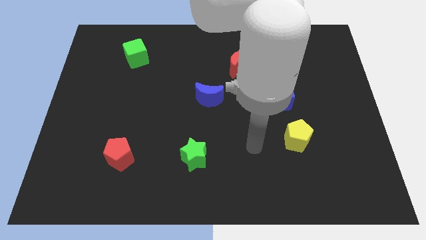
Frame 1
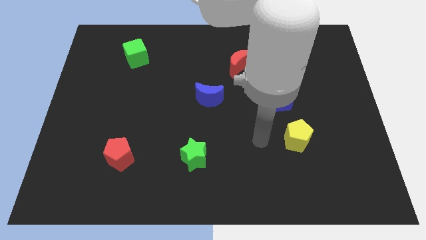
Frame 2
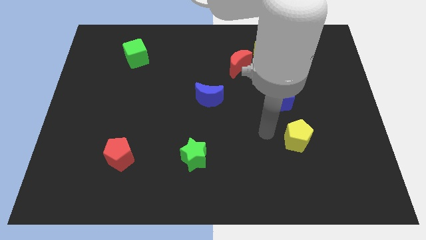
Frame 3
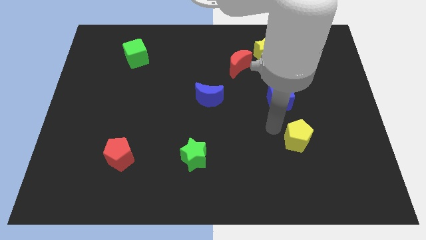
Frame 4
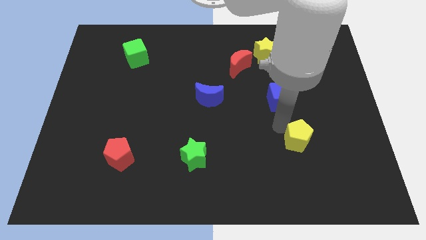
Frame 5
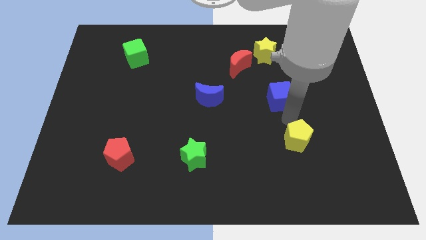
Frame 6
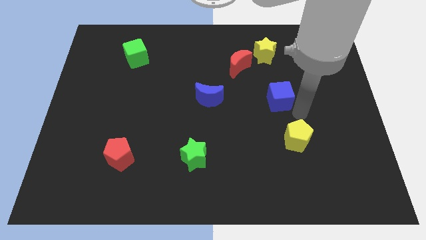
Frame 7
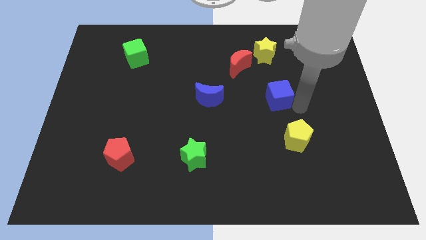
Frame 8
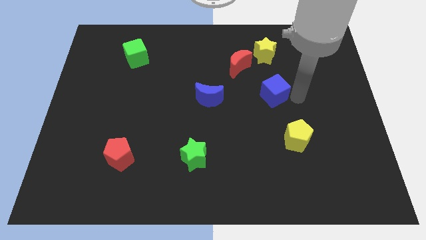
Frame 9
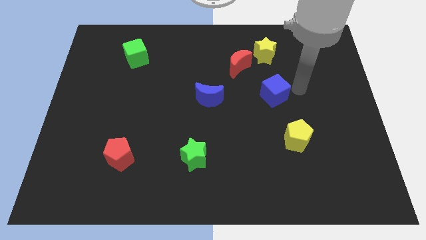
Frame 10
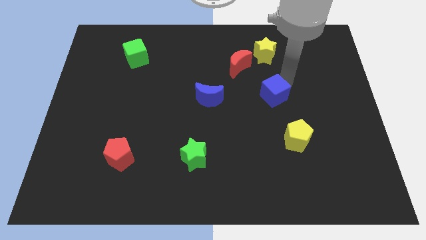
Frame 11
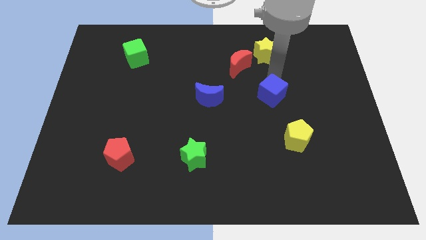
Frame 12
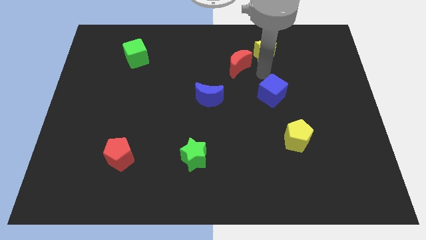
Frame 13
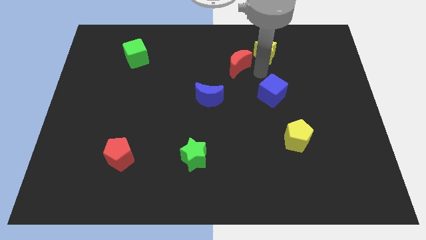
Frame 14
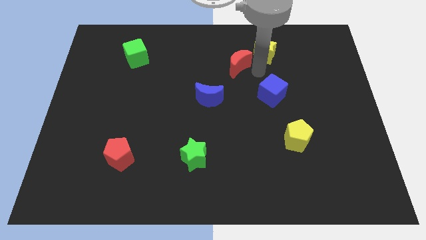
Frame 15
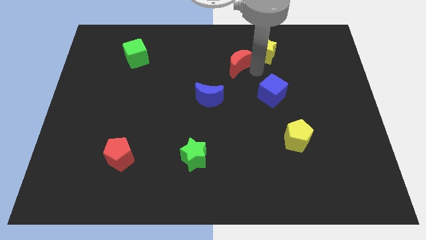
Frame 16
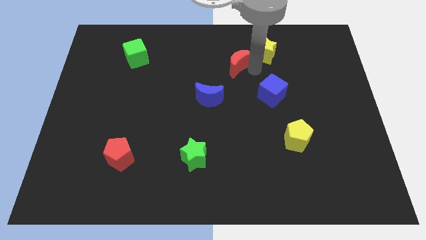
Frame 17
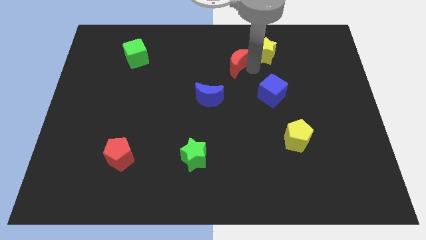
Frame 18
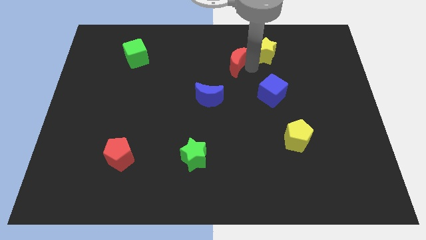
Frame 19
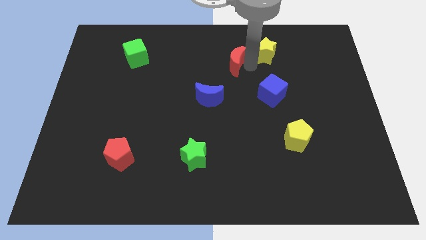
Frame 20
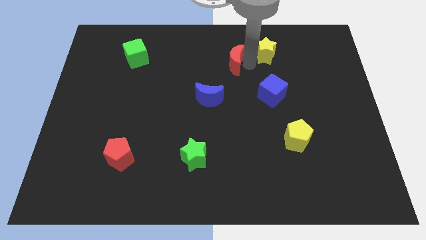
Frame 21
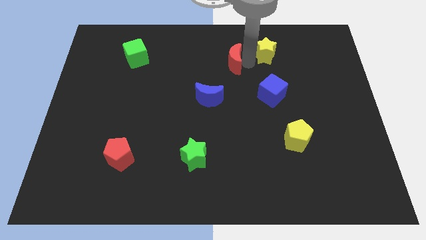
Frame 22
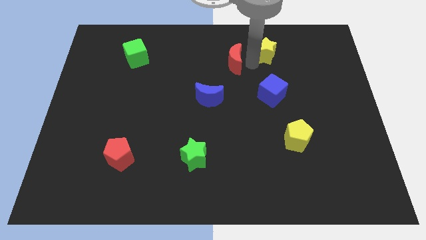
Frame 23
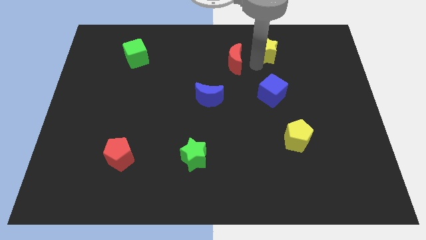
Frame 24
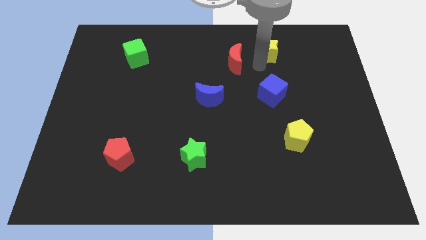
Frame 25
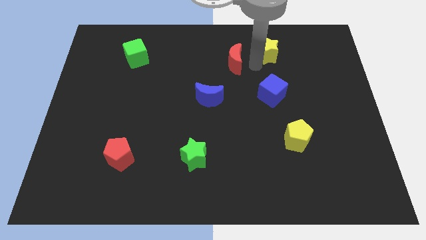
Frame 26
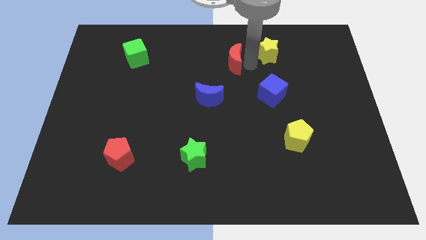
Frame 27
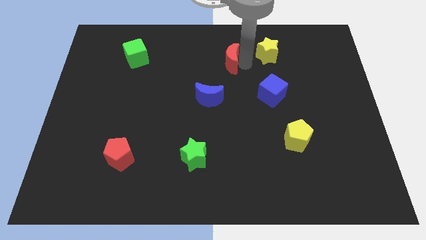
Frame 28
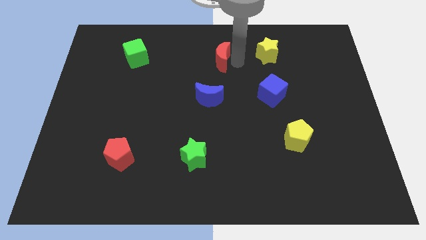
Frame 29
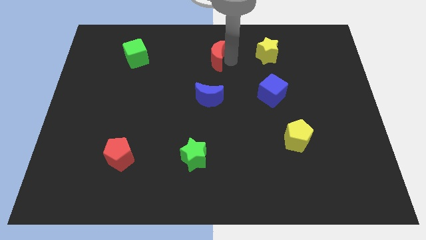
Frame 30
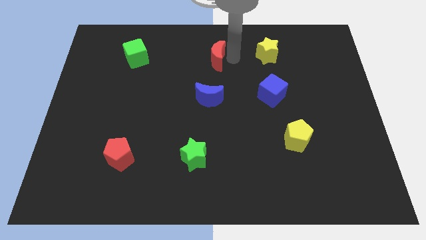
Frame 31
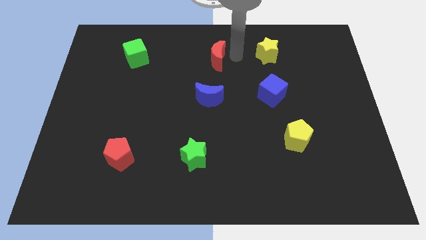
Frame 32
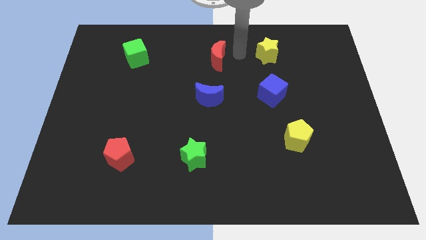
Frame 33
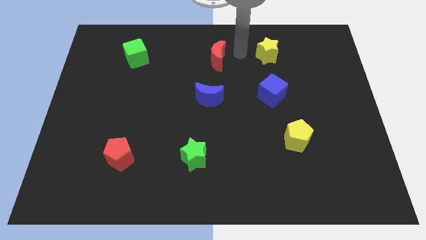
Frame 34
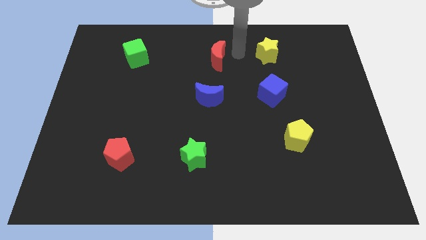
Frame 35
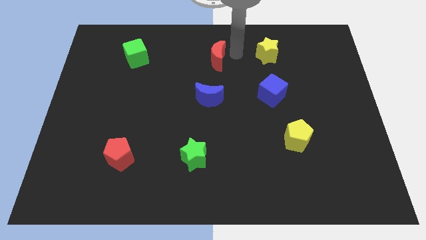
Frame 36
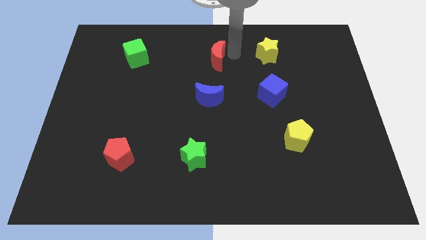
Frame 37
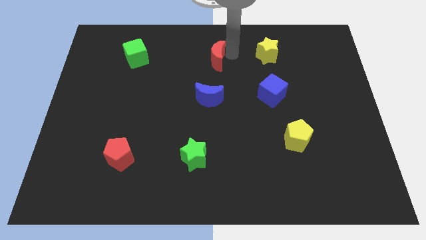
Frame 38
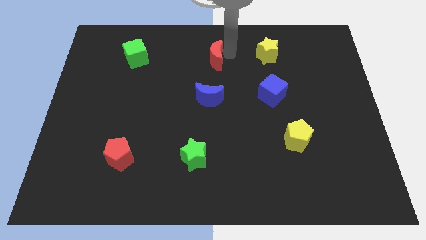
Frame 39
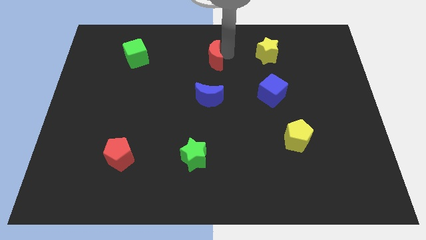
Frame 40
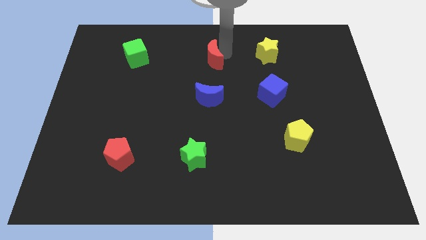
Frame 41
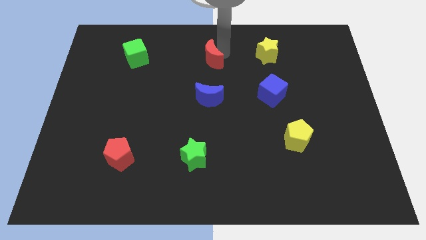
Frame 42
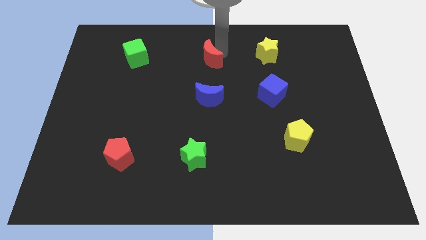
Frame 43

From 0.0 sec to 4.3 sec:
slightly slide the red moon to the left

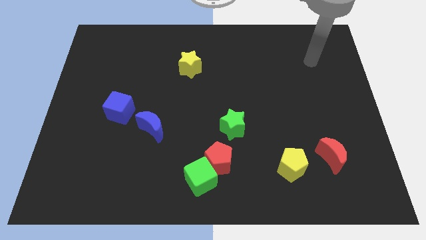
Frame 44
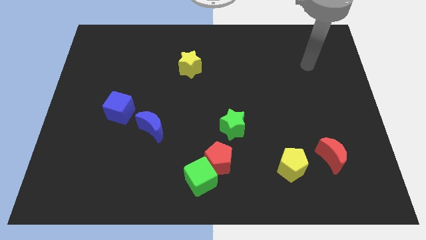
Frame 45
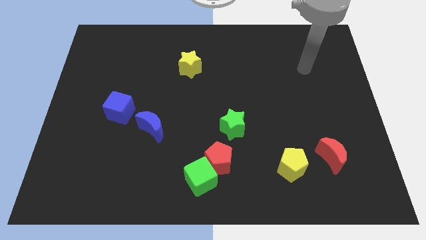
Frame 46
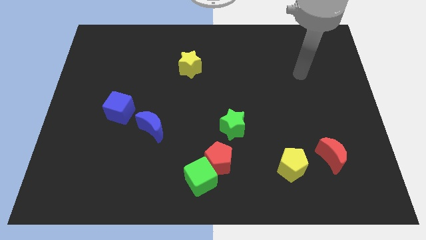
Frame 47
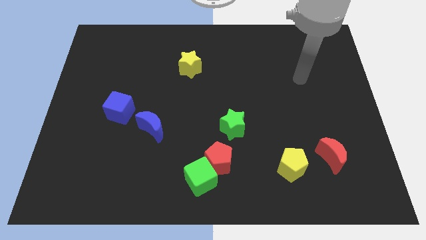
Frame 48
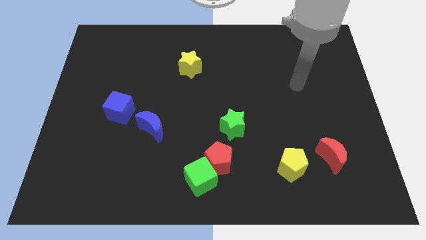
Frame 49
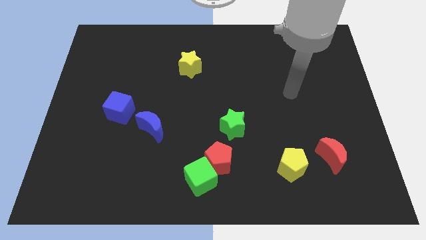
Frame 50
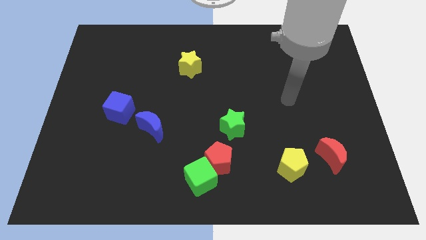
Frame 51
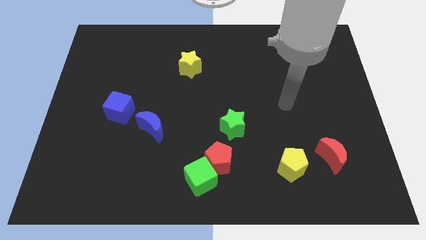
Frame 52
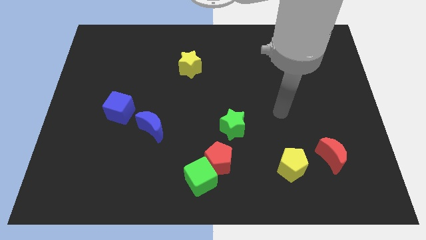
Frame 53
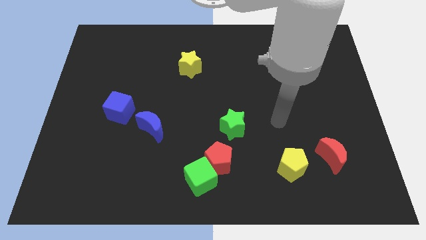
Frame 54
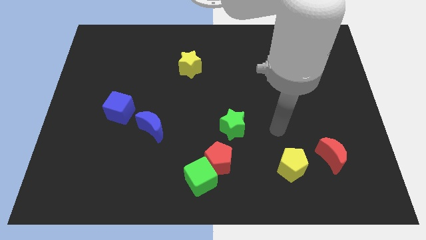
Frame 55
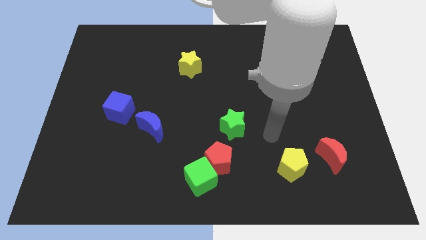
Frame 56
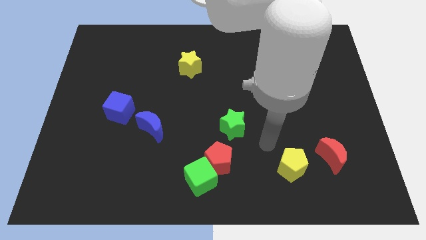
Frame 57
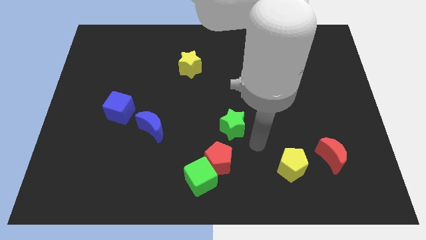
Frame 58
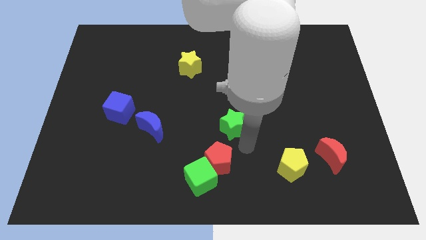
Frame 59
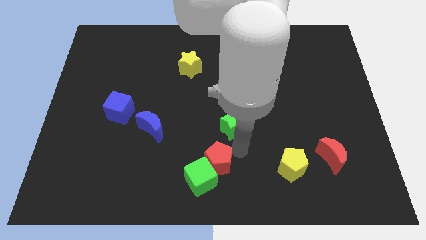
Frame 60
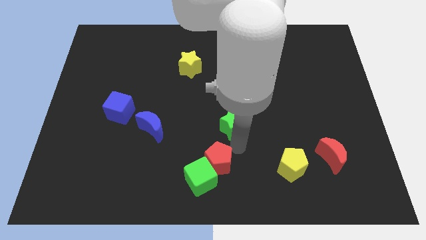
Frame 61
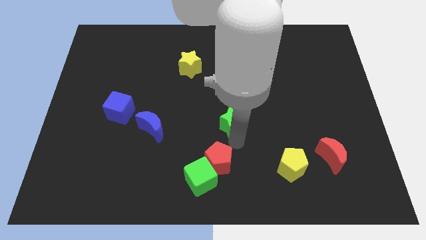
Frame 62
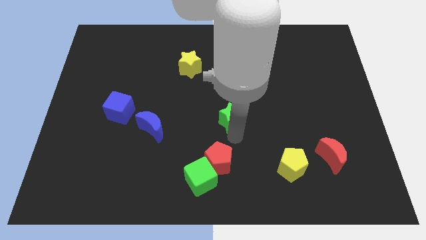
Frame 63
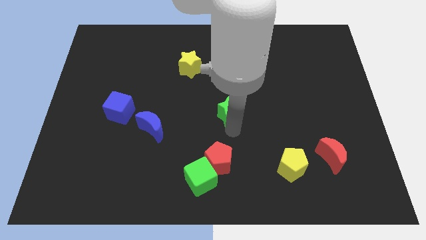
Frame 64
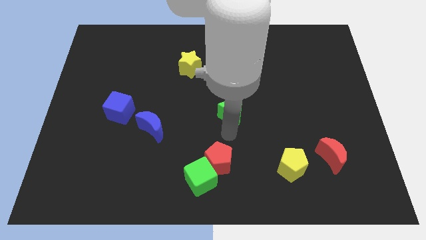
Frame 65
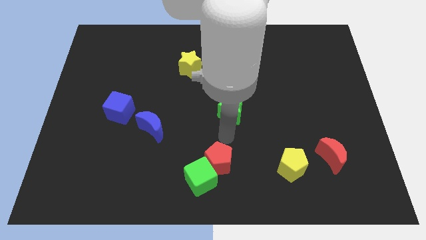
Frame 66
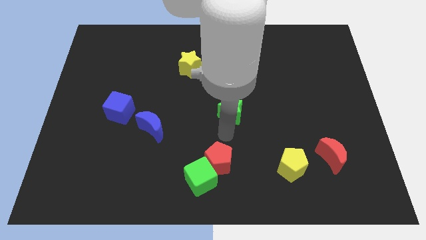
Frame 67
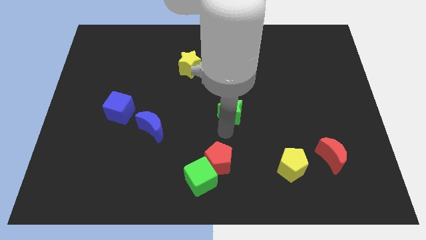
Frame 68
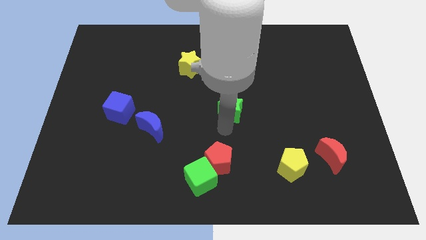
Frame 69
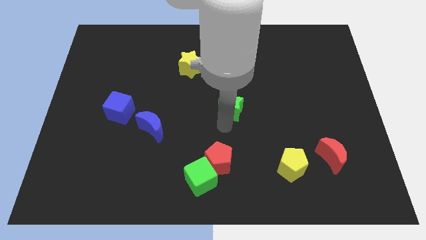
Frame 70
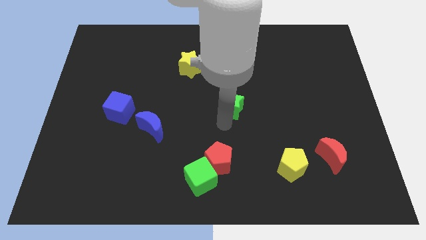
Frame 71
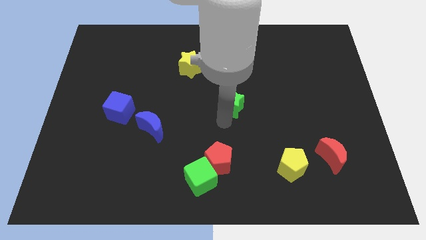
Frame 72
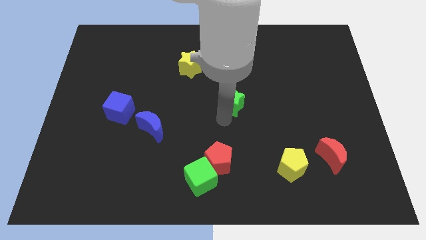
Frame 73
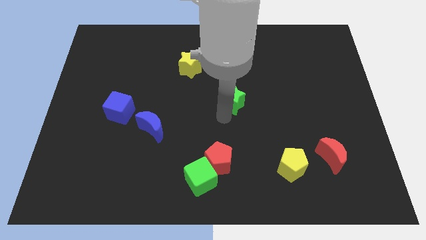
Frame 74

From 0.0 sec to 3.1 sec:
slightly push the green star up

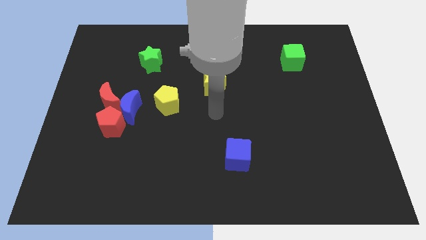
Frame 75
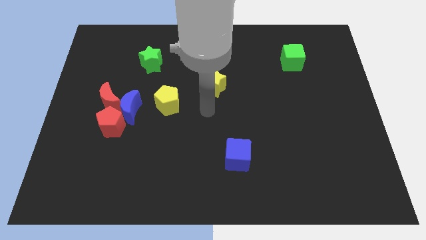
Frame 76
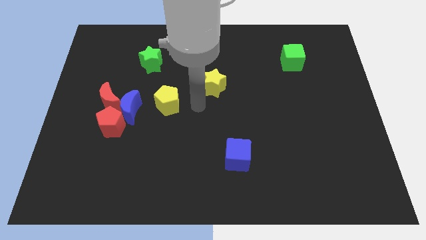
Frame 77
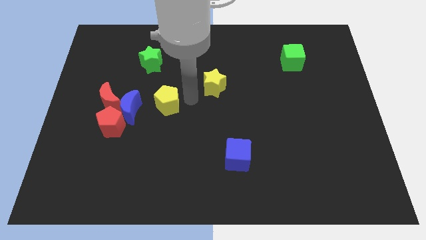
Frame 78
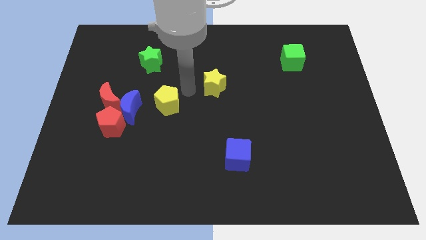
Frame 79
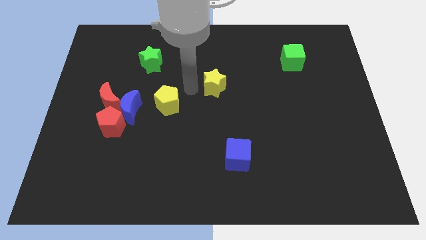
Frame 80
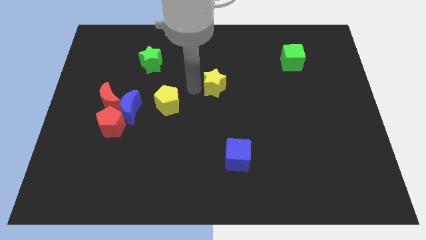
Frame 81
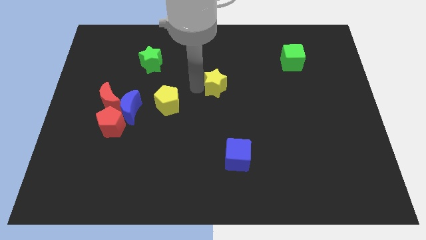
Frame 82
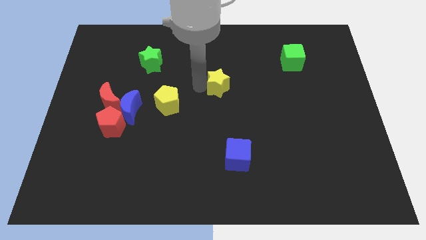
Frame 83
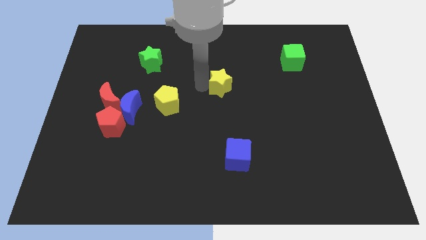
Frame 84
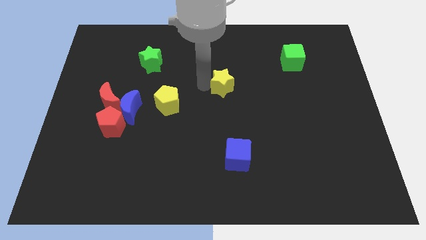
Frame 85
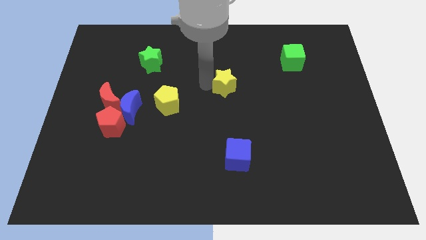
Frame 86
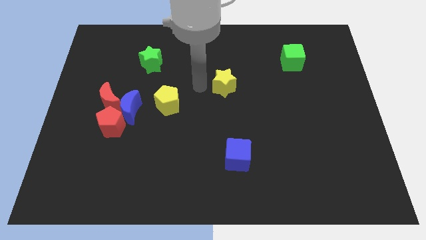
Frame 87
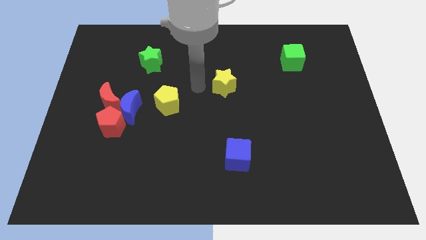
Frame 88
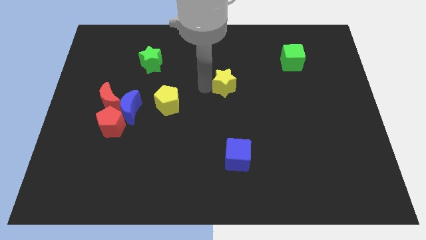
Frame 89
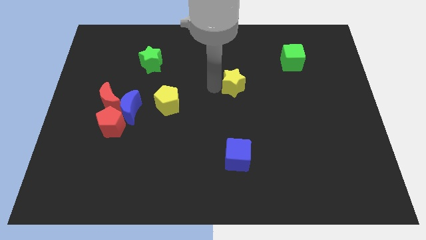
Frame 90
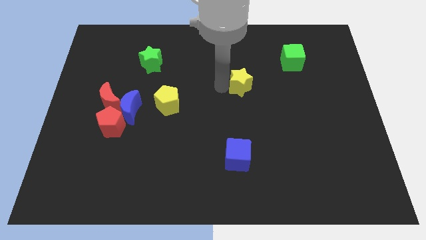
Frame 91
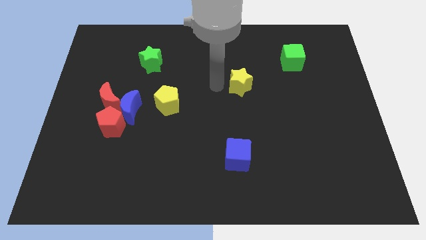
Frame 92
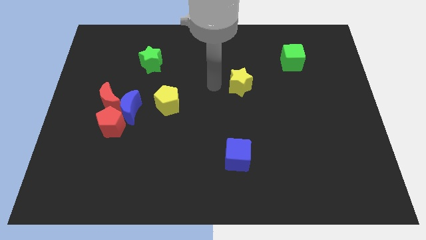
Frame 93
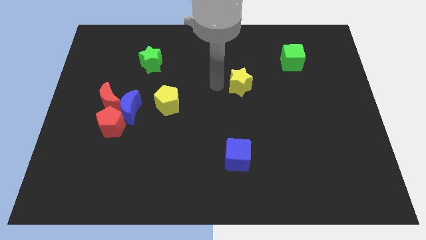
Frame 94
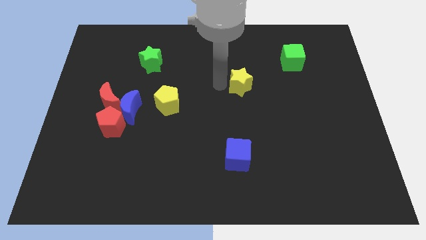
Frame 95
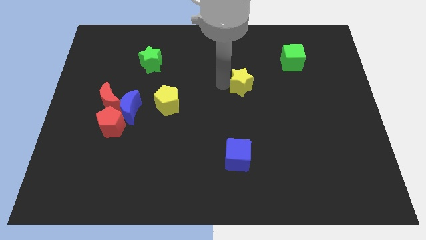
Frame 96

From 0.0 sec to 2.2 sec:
slightly push the yellow star to the right
